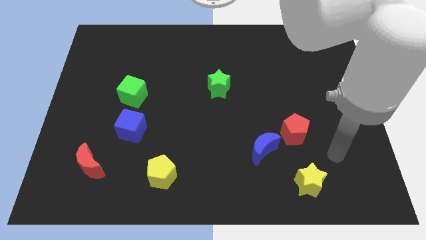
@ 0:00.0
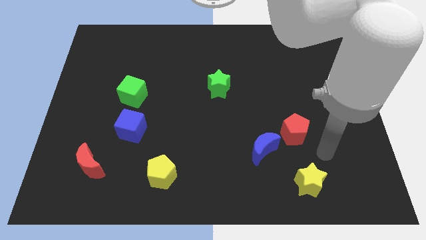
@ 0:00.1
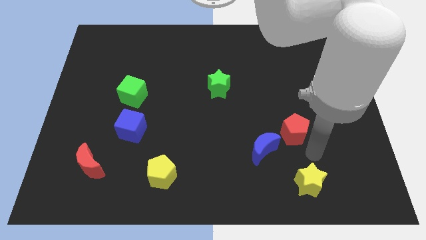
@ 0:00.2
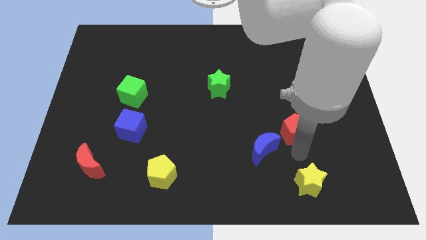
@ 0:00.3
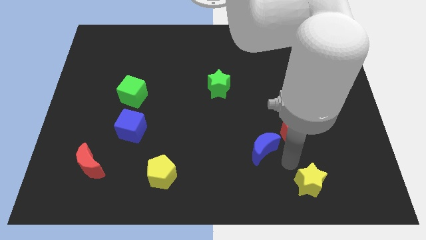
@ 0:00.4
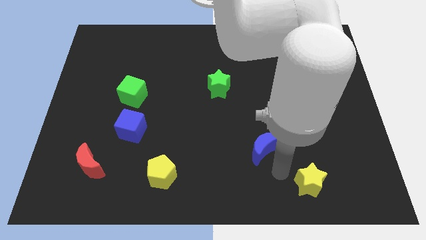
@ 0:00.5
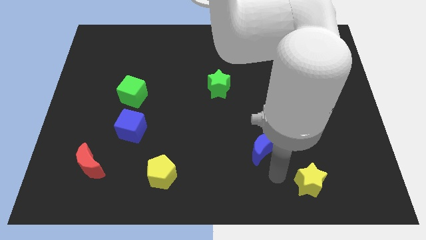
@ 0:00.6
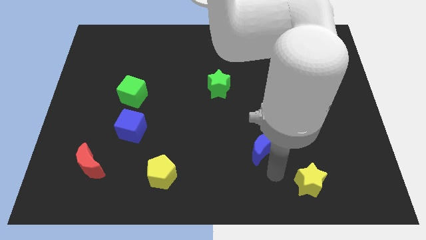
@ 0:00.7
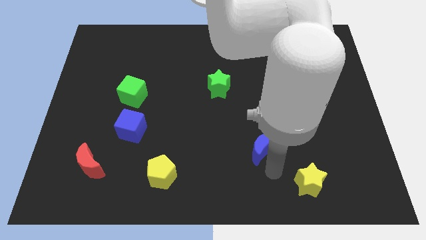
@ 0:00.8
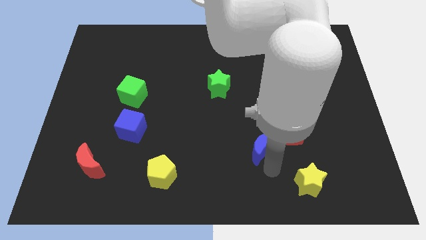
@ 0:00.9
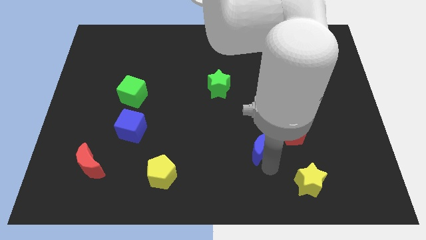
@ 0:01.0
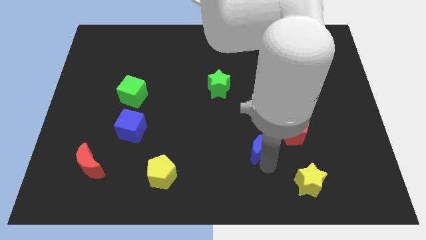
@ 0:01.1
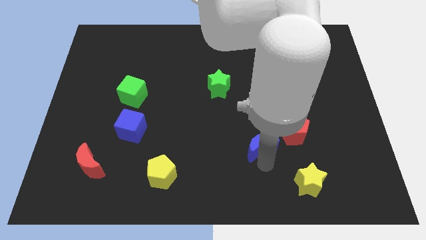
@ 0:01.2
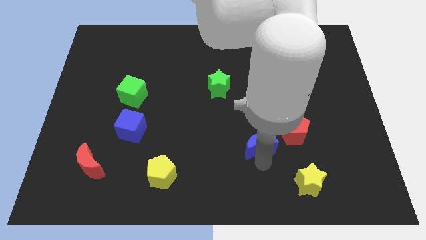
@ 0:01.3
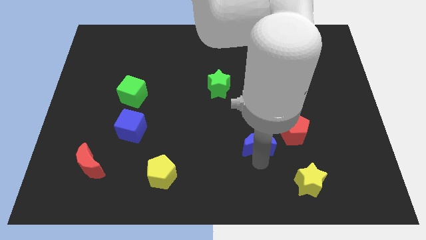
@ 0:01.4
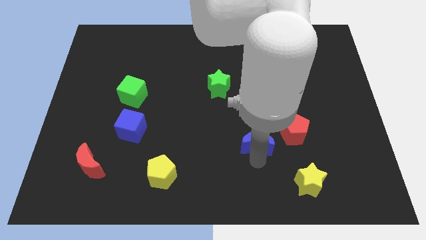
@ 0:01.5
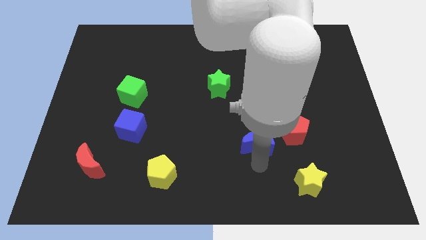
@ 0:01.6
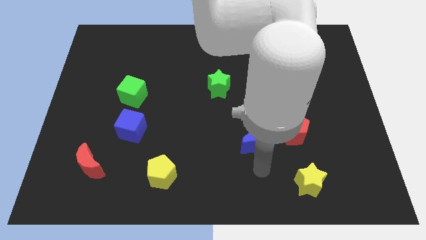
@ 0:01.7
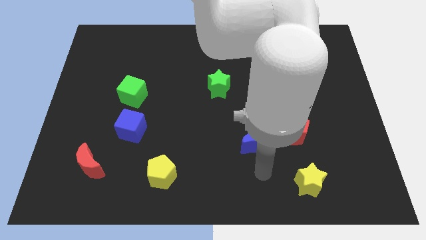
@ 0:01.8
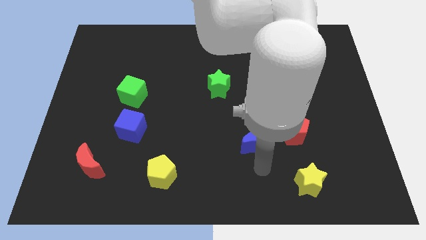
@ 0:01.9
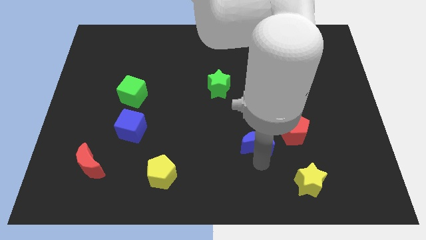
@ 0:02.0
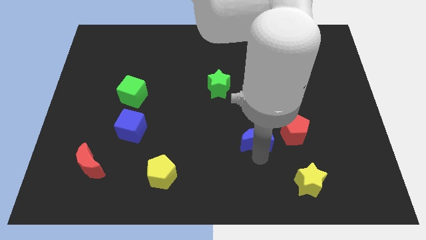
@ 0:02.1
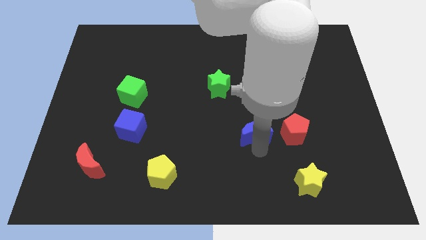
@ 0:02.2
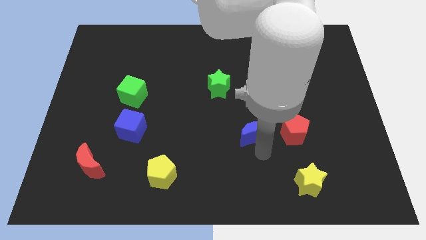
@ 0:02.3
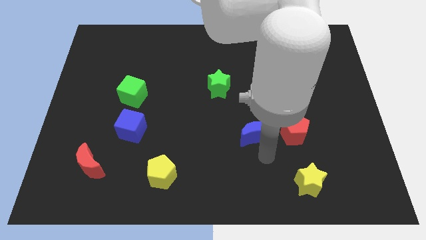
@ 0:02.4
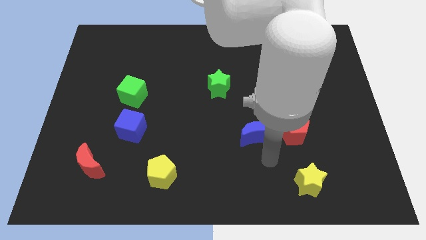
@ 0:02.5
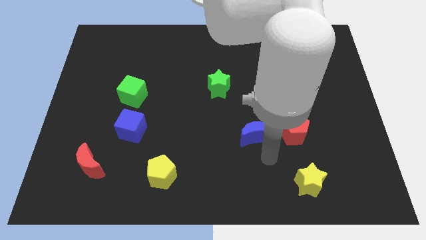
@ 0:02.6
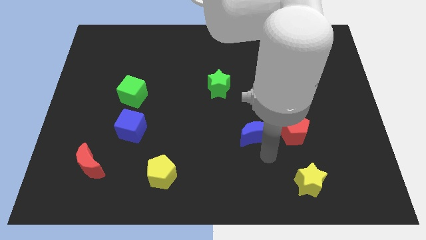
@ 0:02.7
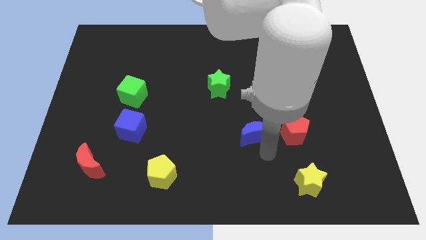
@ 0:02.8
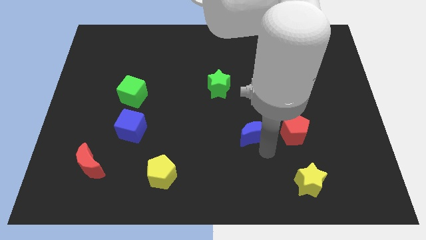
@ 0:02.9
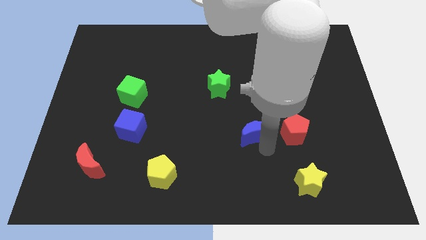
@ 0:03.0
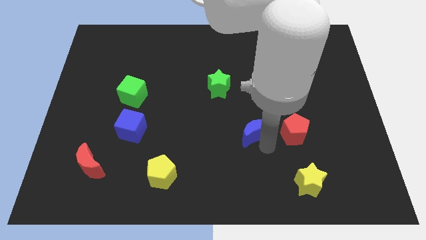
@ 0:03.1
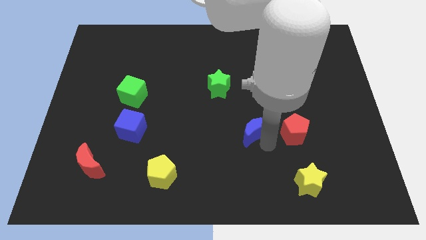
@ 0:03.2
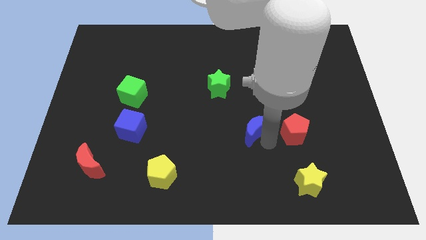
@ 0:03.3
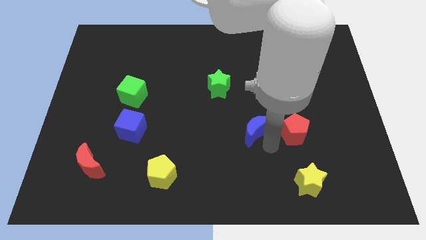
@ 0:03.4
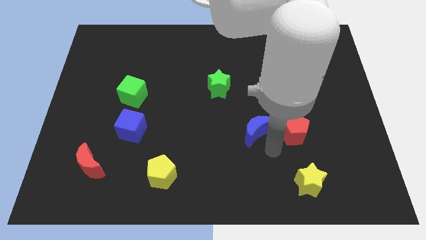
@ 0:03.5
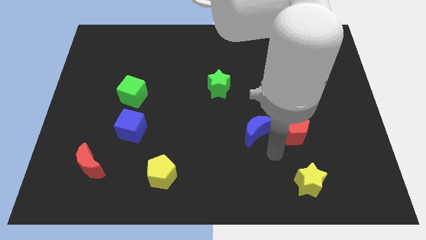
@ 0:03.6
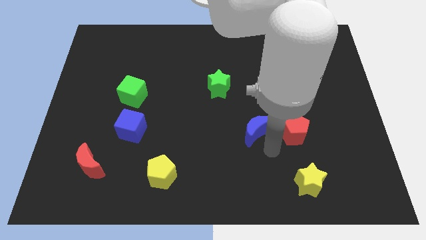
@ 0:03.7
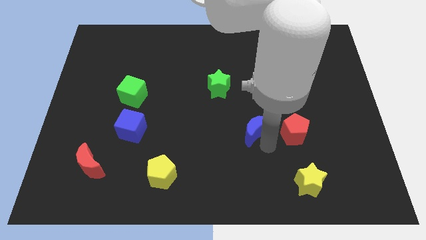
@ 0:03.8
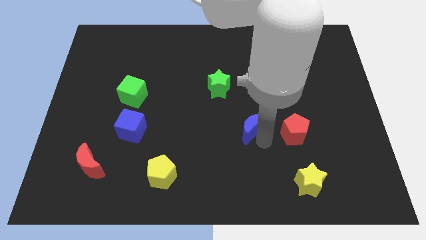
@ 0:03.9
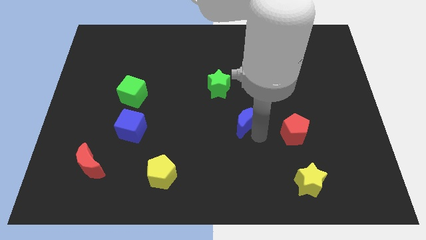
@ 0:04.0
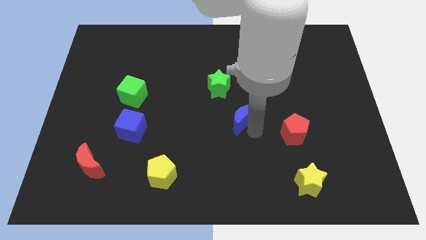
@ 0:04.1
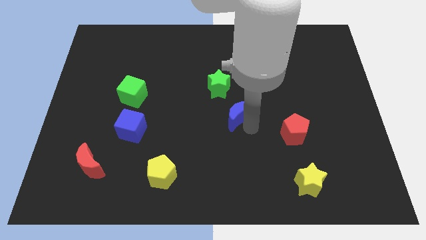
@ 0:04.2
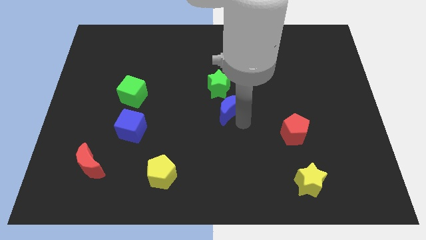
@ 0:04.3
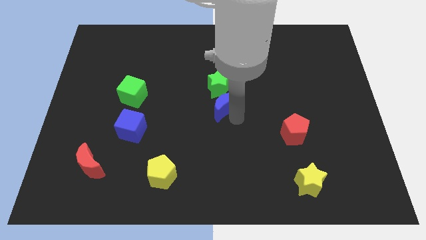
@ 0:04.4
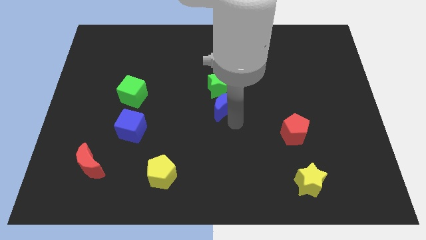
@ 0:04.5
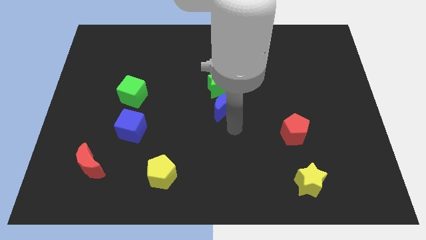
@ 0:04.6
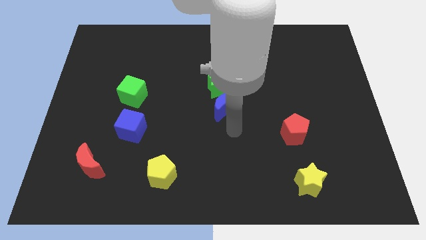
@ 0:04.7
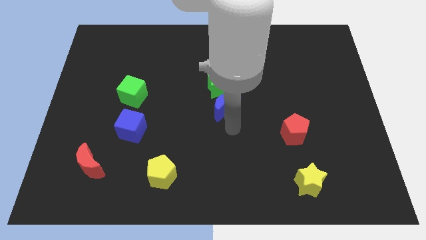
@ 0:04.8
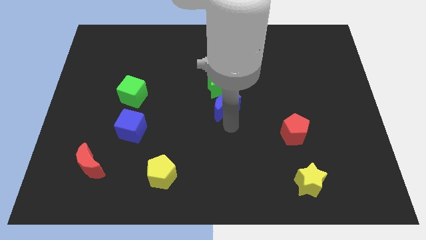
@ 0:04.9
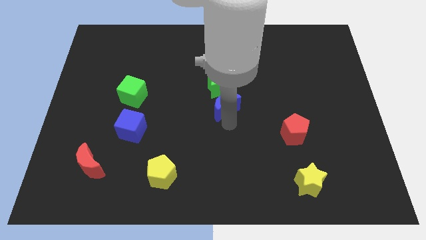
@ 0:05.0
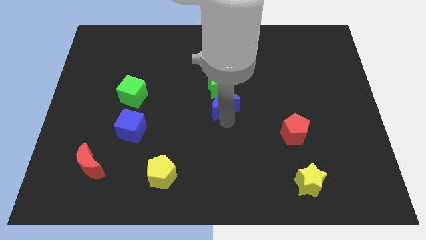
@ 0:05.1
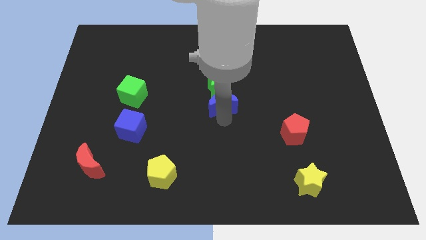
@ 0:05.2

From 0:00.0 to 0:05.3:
slide the blue moon close to the green star

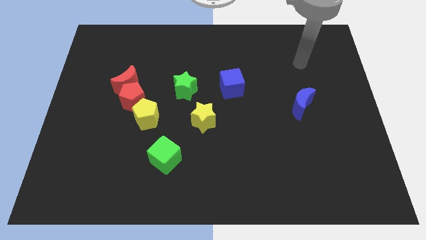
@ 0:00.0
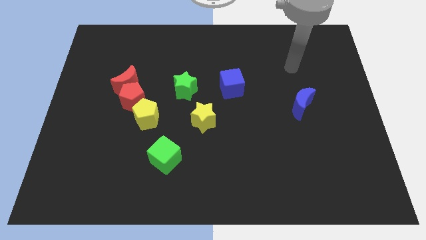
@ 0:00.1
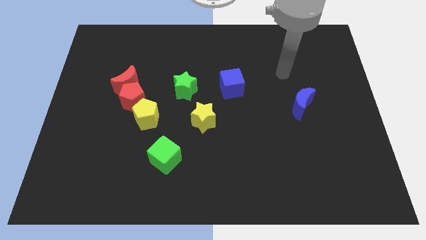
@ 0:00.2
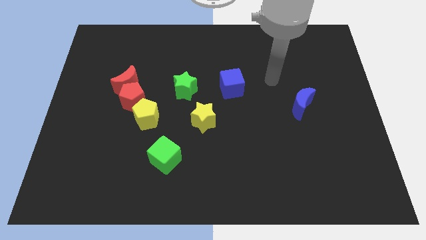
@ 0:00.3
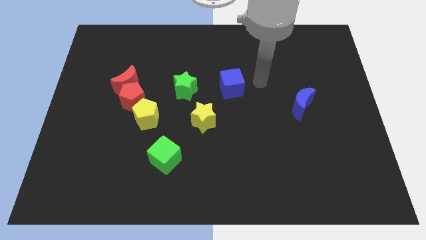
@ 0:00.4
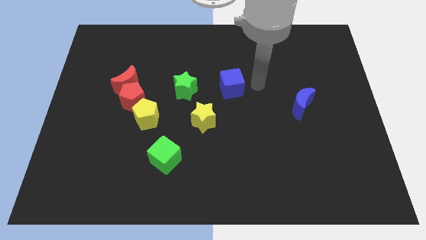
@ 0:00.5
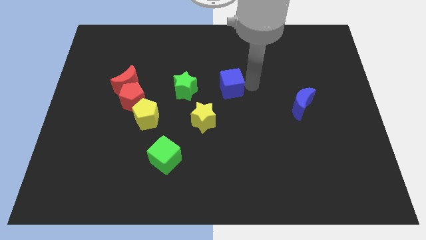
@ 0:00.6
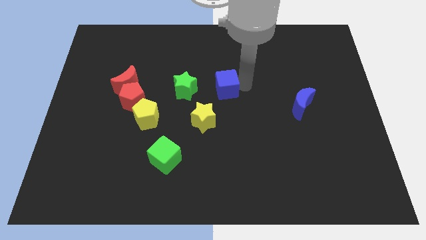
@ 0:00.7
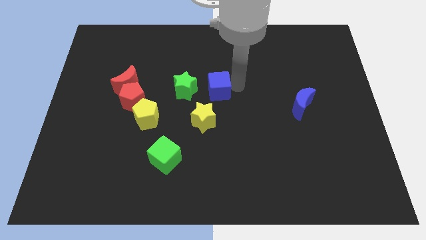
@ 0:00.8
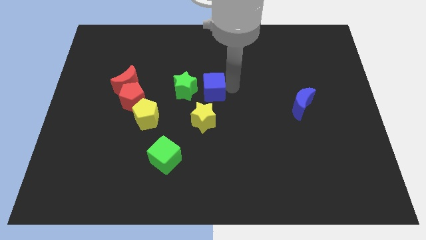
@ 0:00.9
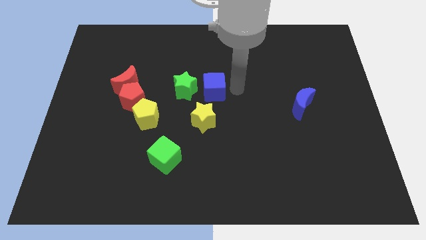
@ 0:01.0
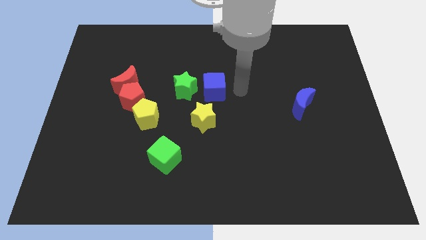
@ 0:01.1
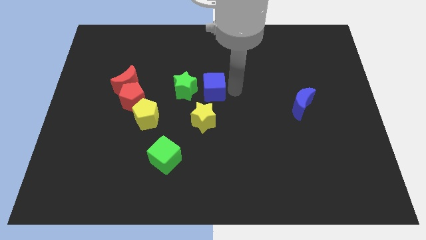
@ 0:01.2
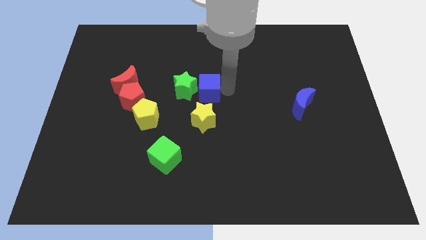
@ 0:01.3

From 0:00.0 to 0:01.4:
push the blue cube next to the green star

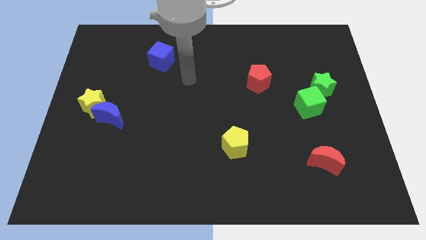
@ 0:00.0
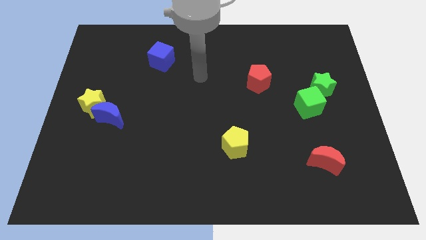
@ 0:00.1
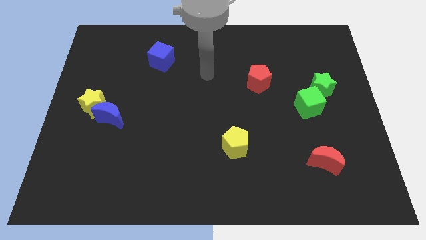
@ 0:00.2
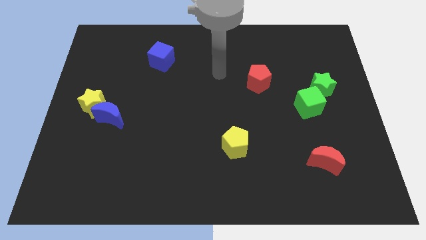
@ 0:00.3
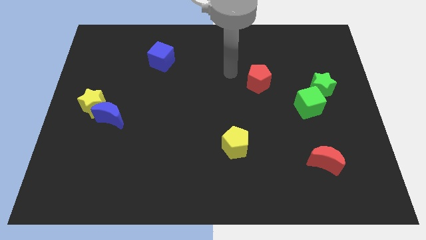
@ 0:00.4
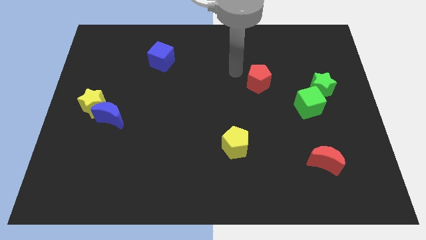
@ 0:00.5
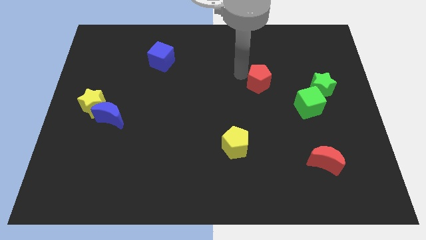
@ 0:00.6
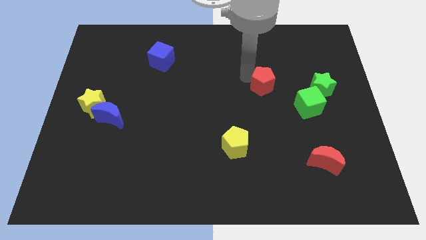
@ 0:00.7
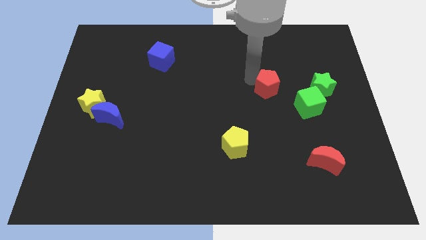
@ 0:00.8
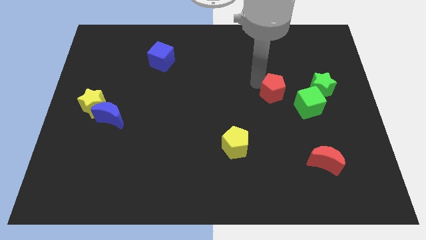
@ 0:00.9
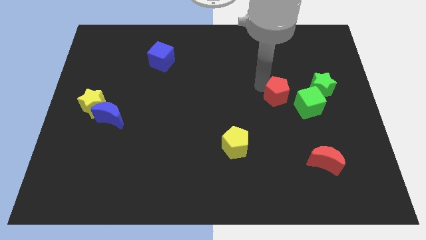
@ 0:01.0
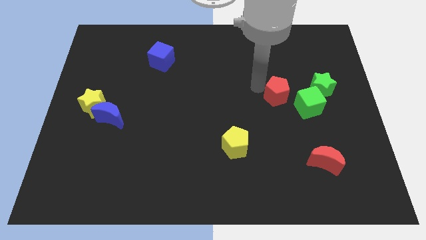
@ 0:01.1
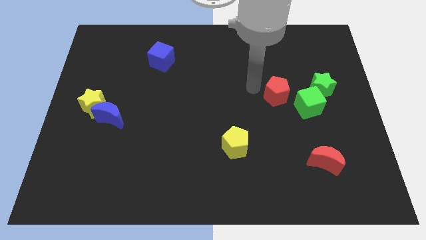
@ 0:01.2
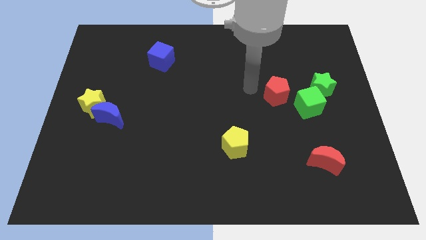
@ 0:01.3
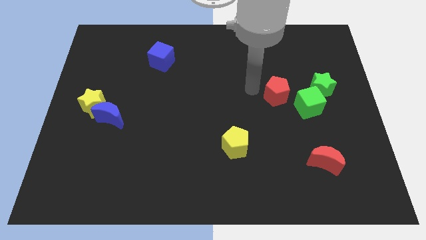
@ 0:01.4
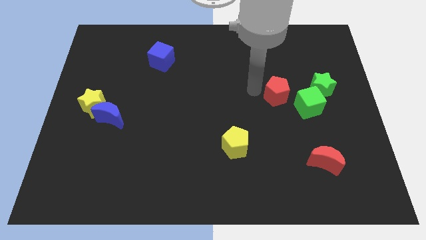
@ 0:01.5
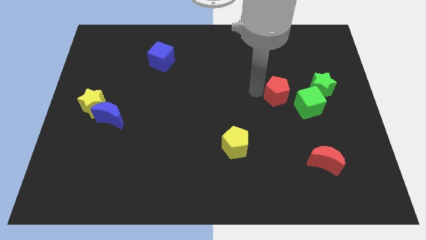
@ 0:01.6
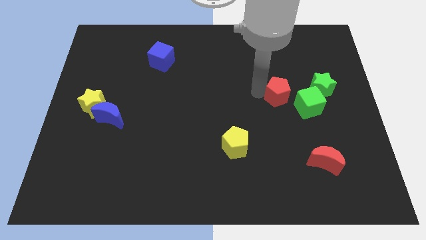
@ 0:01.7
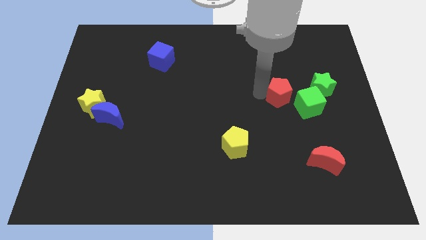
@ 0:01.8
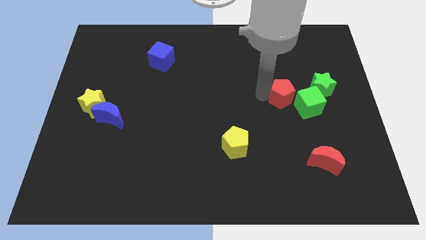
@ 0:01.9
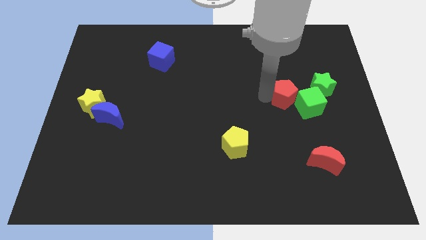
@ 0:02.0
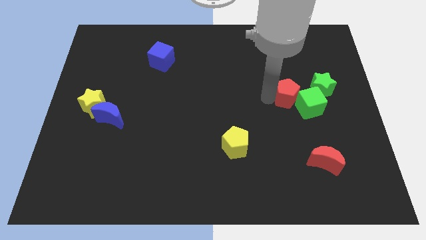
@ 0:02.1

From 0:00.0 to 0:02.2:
push the red pentagon to the green cube
